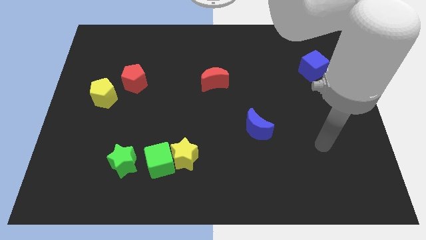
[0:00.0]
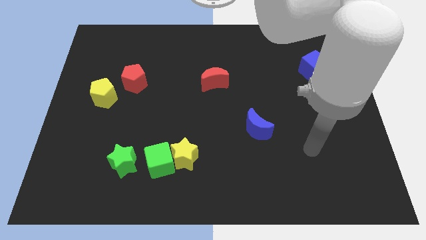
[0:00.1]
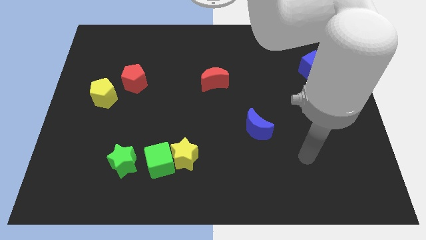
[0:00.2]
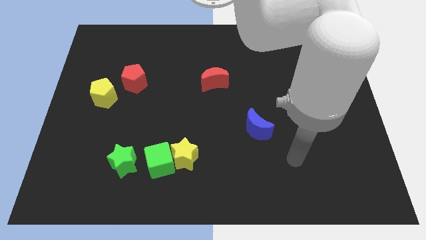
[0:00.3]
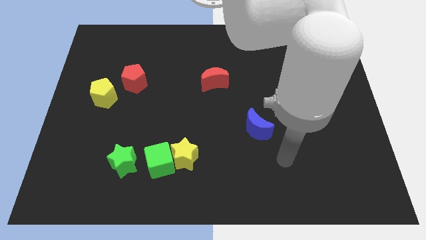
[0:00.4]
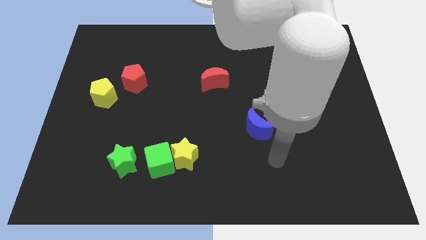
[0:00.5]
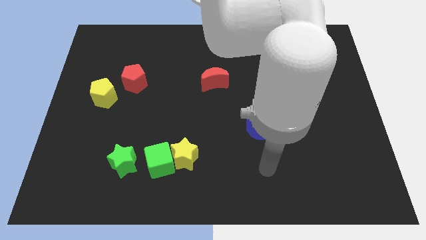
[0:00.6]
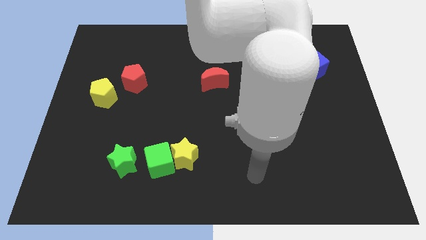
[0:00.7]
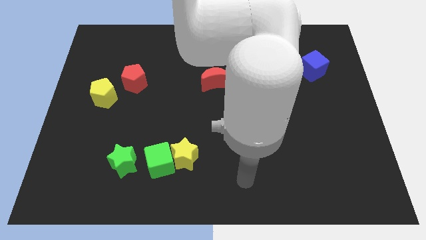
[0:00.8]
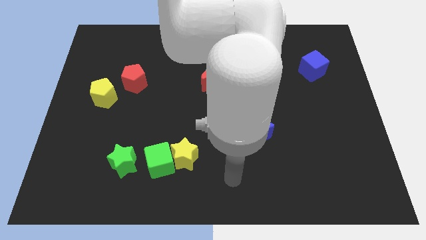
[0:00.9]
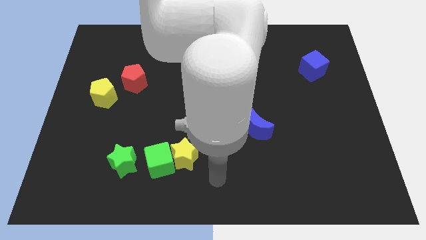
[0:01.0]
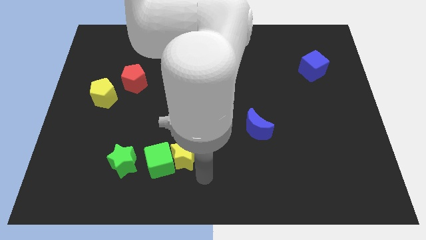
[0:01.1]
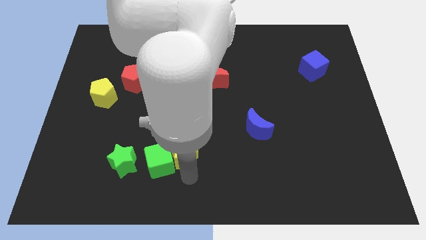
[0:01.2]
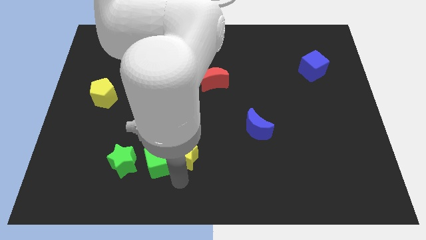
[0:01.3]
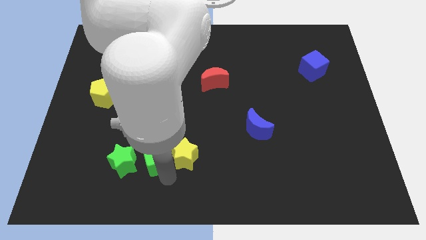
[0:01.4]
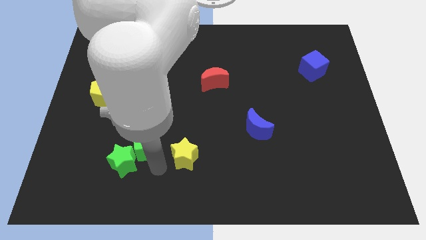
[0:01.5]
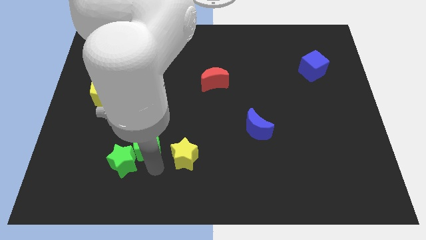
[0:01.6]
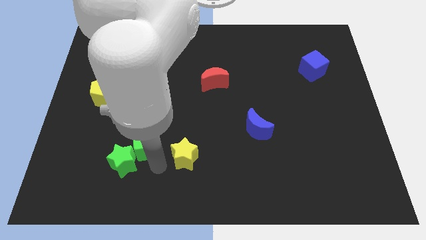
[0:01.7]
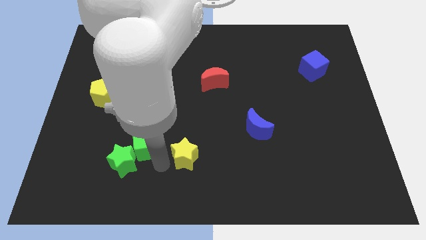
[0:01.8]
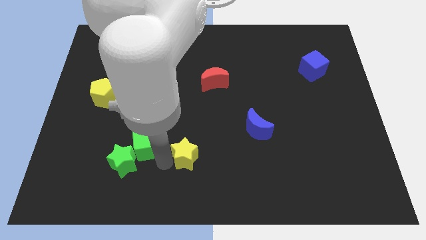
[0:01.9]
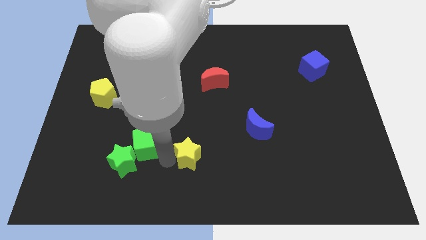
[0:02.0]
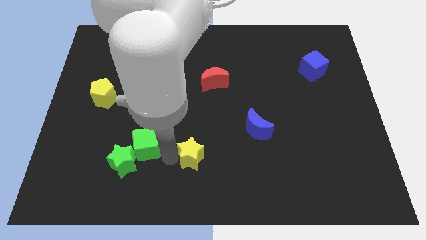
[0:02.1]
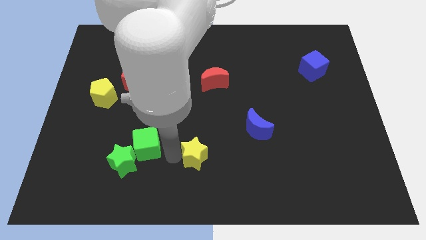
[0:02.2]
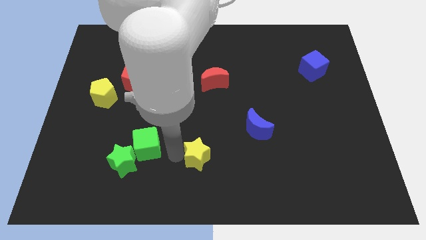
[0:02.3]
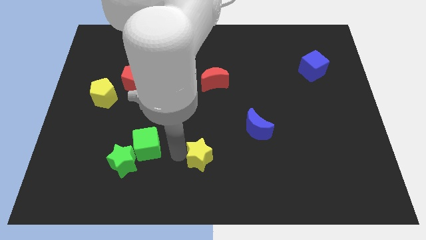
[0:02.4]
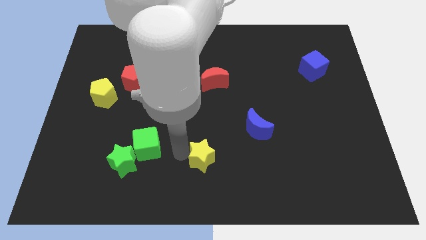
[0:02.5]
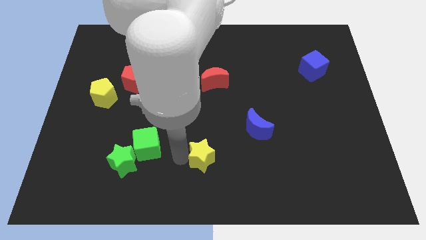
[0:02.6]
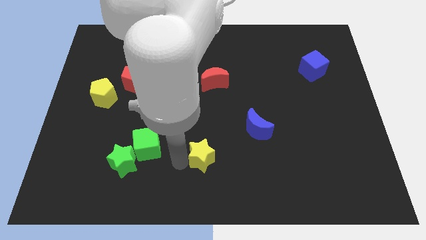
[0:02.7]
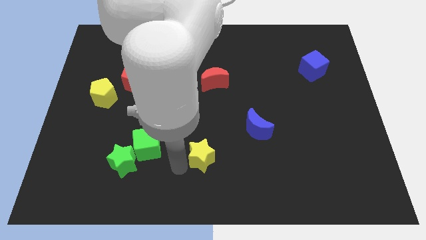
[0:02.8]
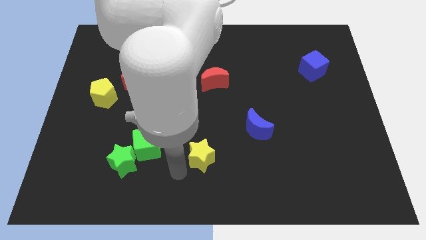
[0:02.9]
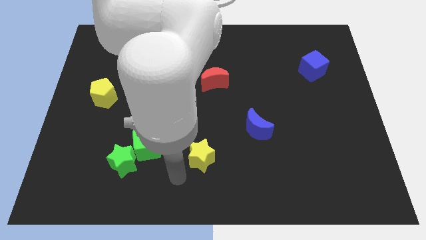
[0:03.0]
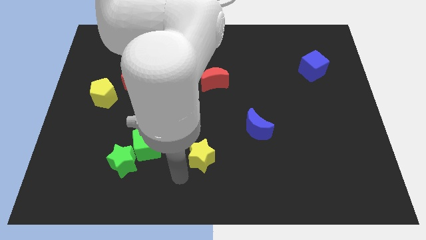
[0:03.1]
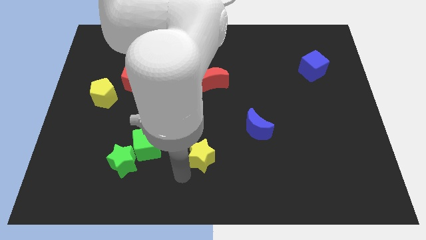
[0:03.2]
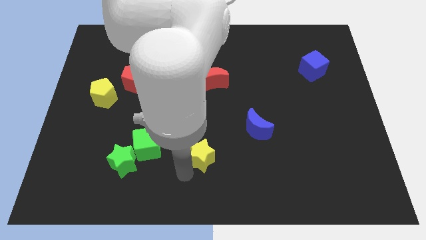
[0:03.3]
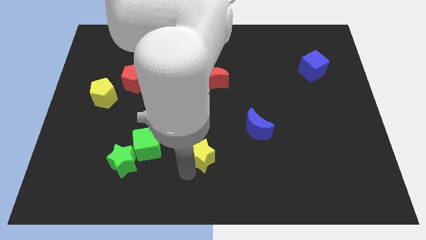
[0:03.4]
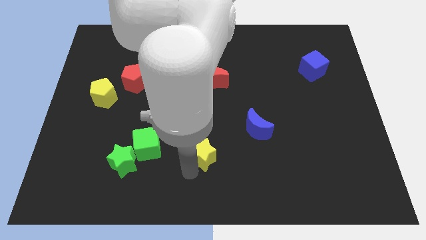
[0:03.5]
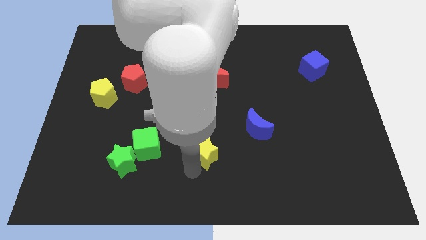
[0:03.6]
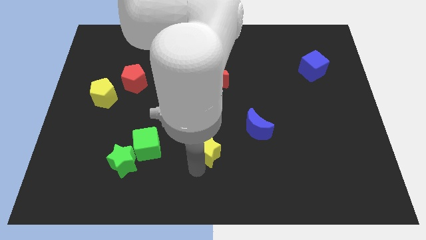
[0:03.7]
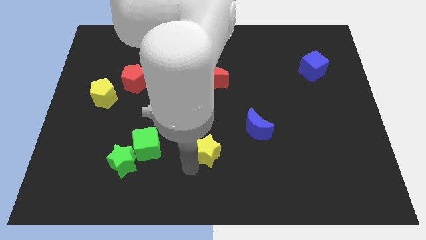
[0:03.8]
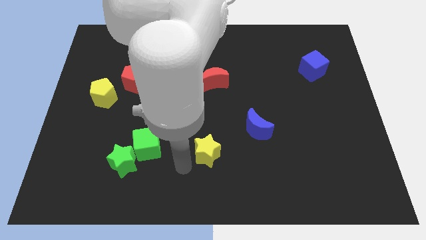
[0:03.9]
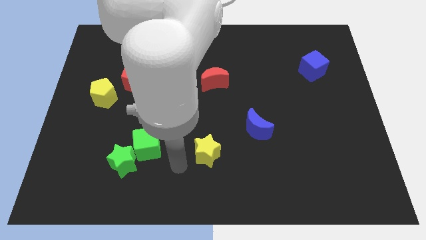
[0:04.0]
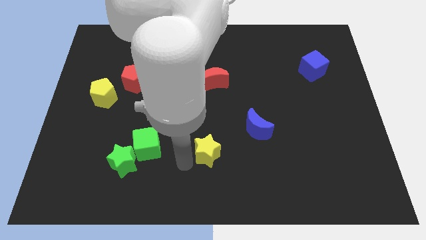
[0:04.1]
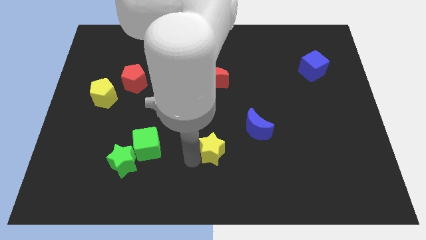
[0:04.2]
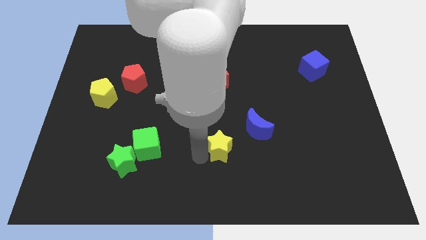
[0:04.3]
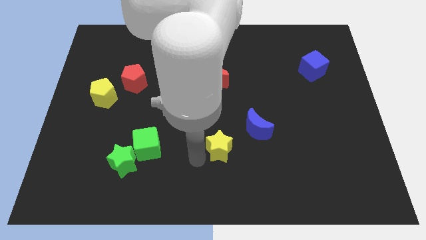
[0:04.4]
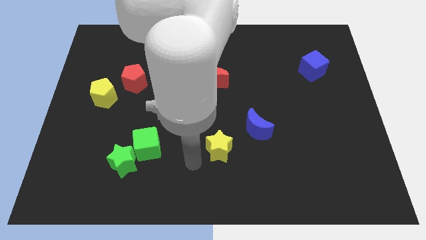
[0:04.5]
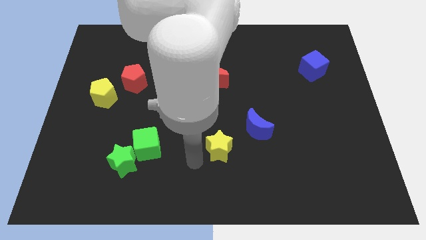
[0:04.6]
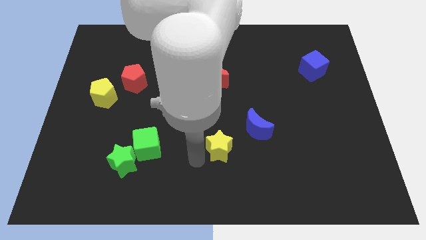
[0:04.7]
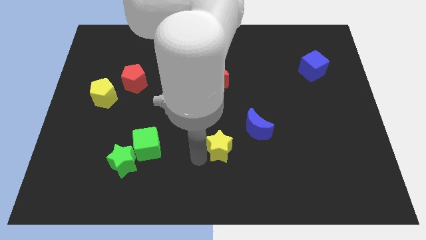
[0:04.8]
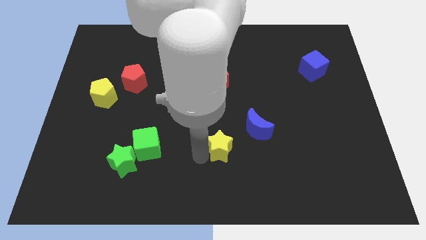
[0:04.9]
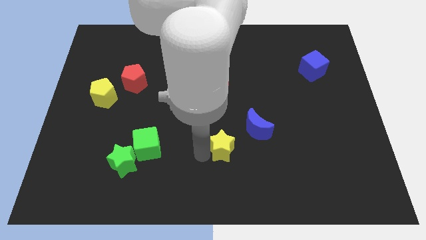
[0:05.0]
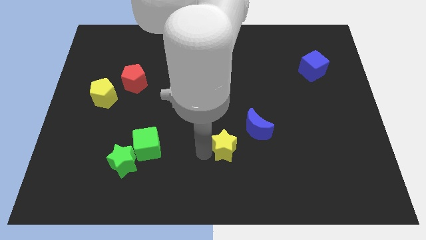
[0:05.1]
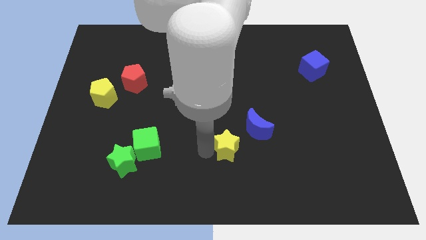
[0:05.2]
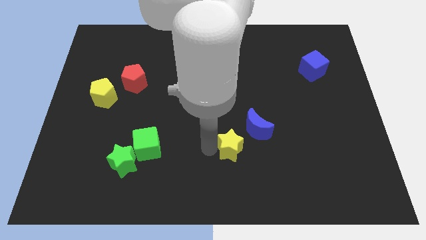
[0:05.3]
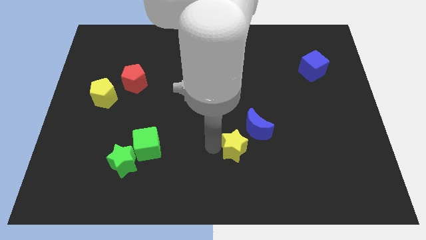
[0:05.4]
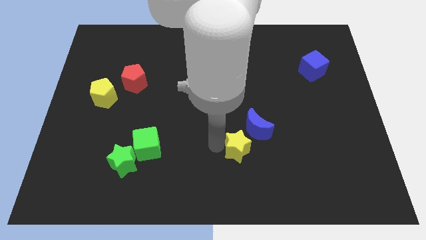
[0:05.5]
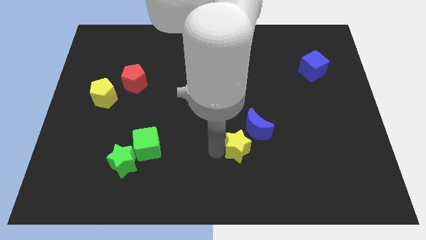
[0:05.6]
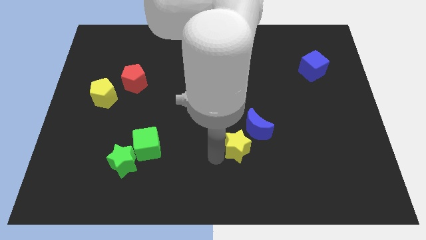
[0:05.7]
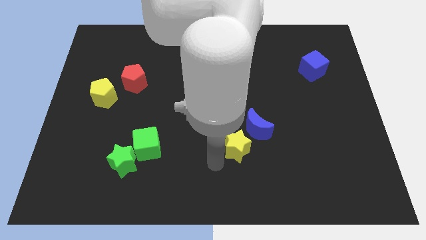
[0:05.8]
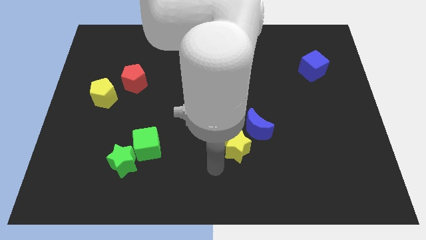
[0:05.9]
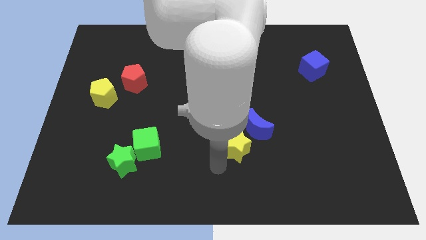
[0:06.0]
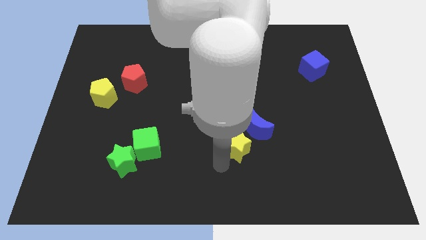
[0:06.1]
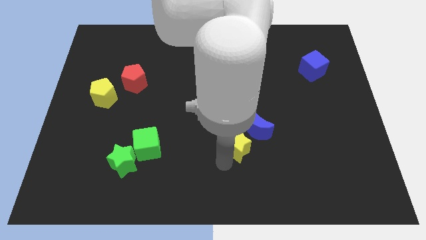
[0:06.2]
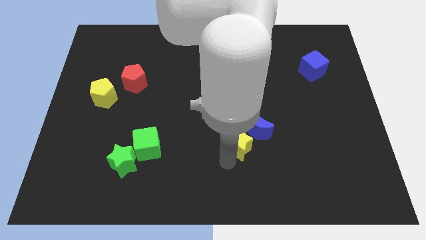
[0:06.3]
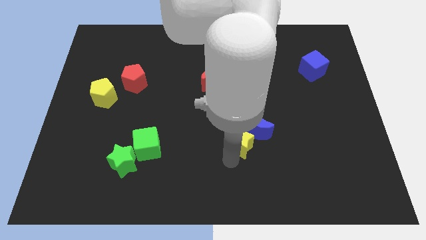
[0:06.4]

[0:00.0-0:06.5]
slide the yellow star towards the blue moon

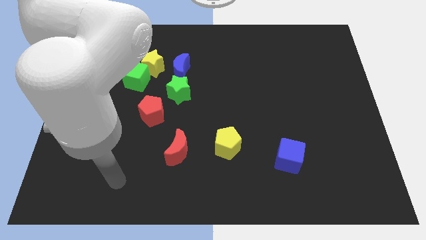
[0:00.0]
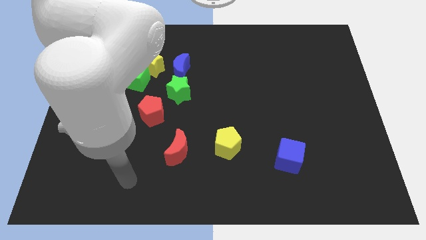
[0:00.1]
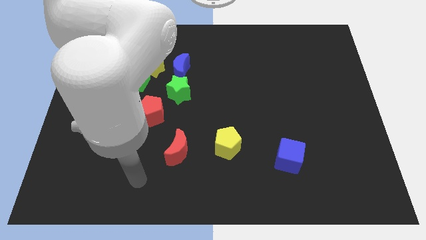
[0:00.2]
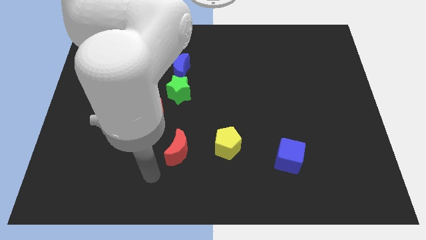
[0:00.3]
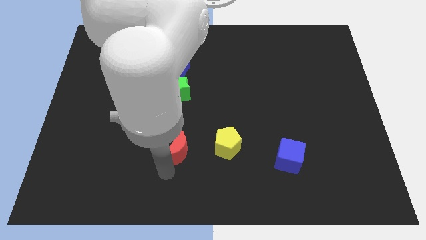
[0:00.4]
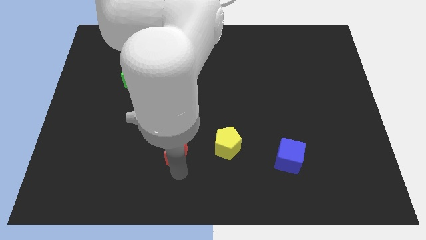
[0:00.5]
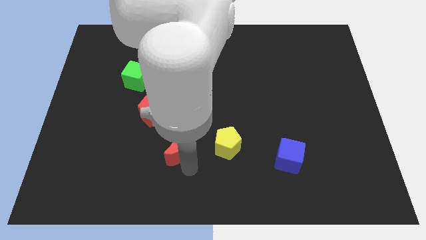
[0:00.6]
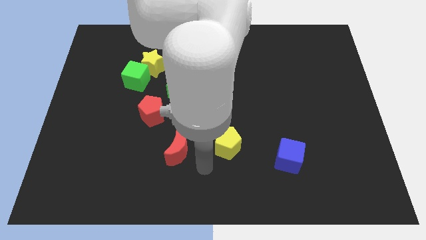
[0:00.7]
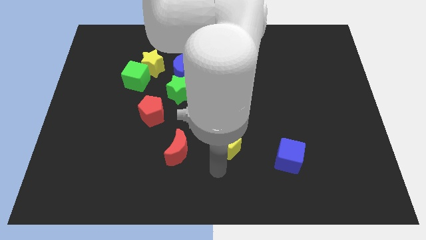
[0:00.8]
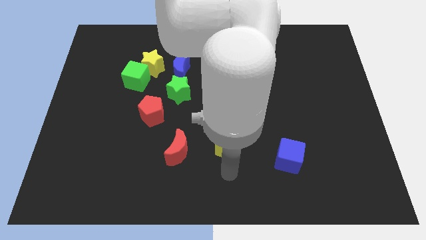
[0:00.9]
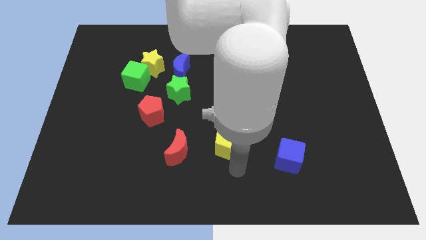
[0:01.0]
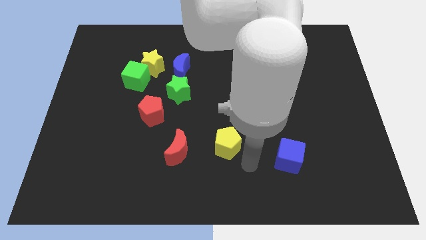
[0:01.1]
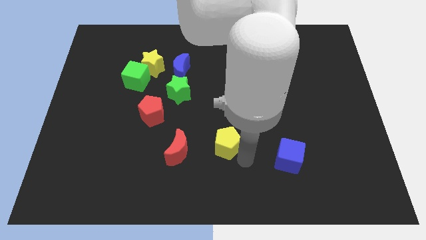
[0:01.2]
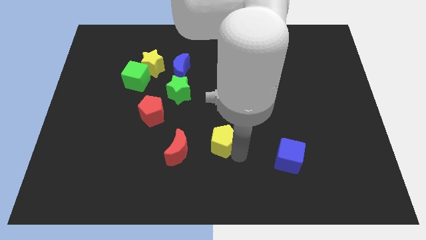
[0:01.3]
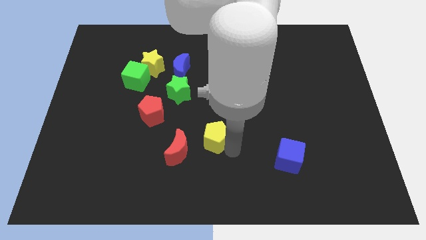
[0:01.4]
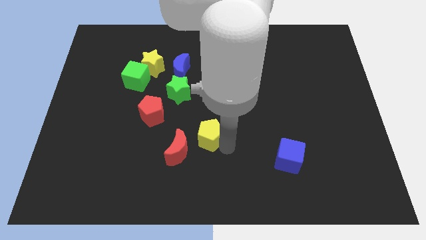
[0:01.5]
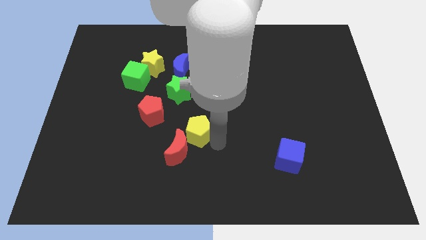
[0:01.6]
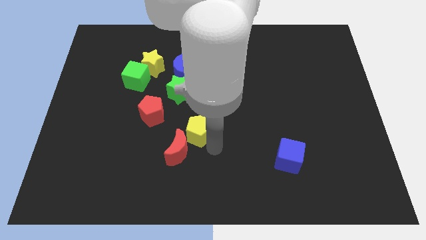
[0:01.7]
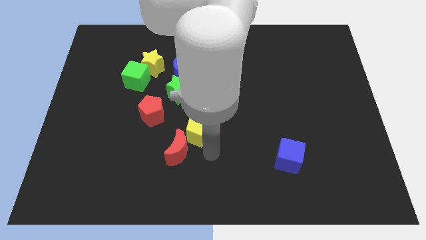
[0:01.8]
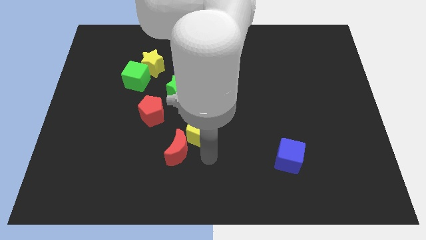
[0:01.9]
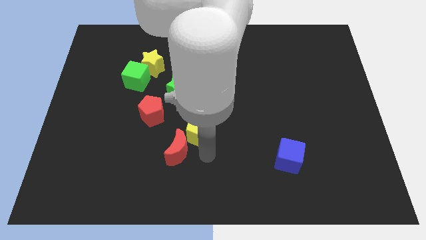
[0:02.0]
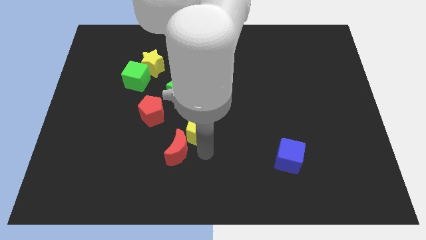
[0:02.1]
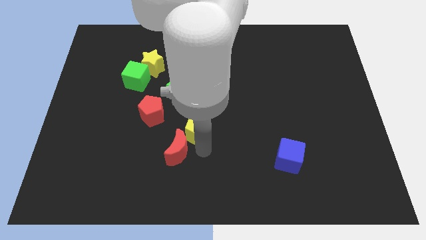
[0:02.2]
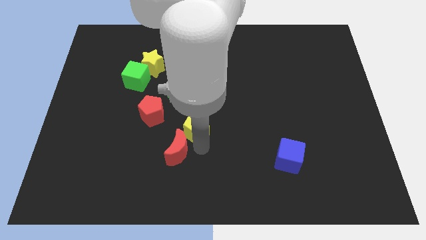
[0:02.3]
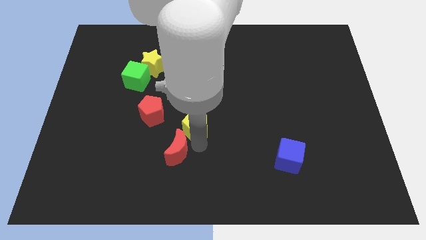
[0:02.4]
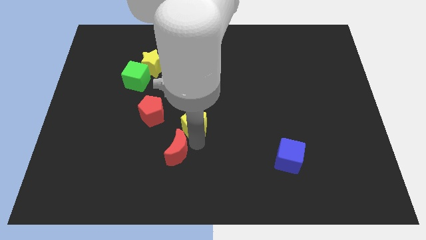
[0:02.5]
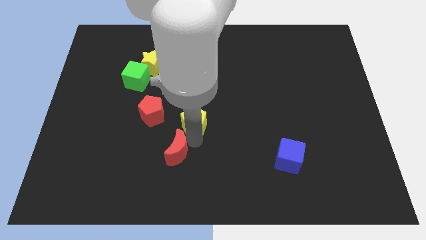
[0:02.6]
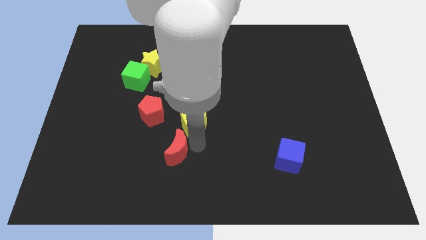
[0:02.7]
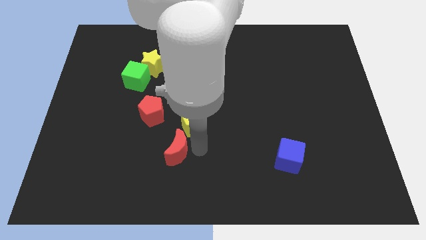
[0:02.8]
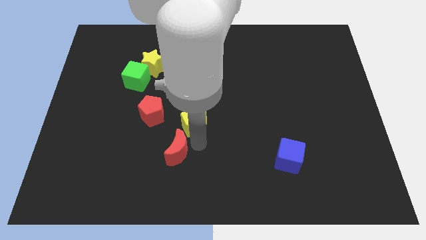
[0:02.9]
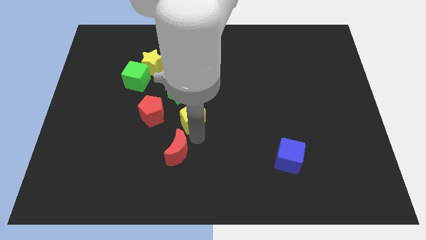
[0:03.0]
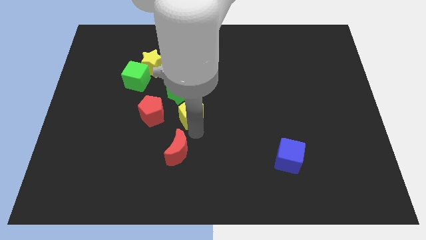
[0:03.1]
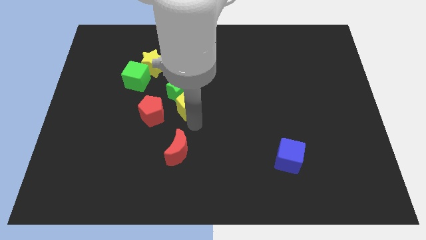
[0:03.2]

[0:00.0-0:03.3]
move the yellow pentagon to the green star
